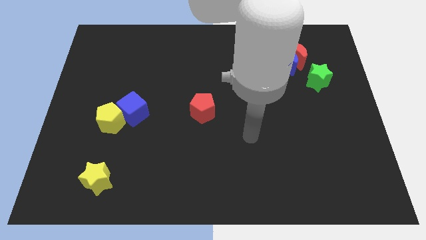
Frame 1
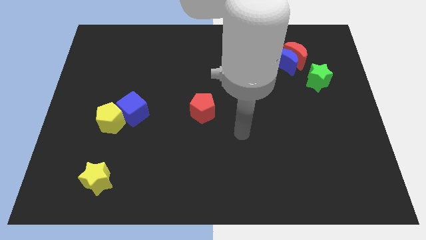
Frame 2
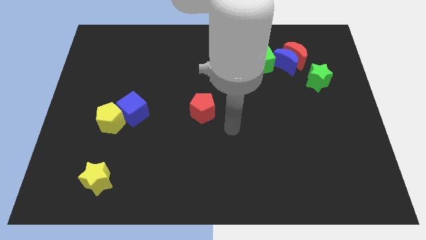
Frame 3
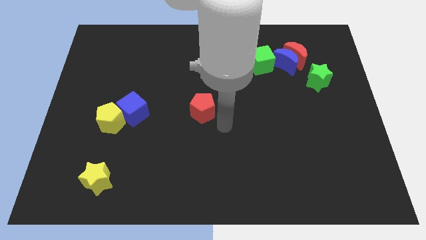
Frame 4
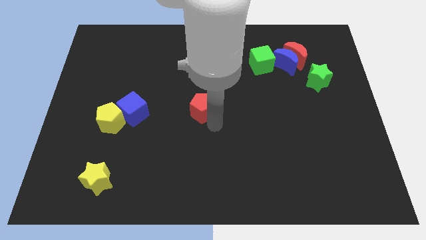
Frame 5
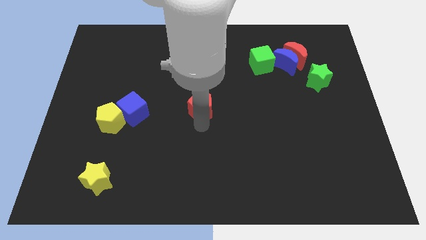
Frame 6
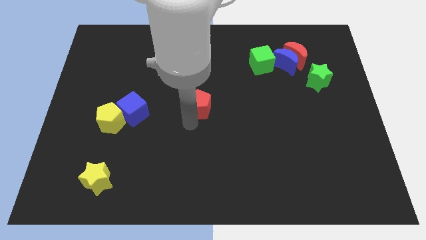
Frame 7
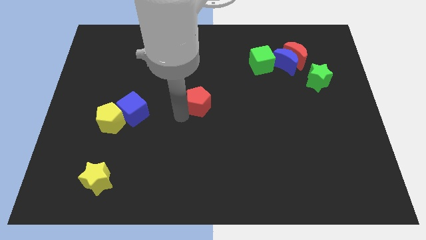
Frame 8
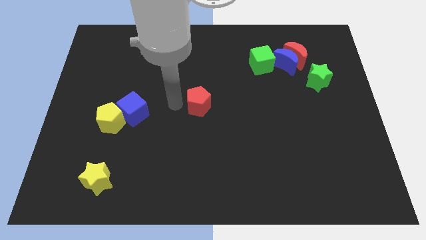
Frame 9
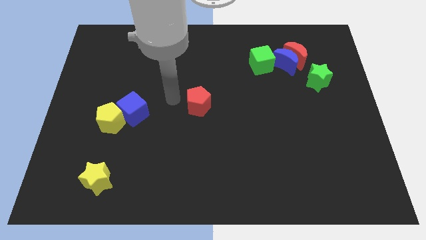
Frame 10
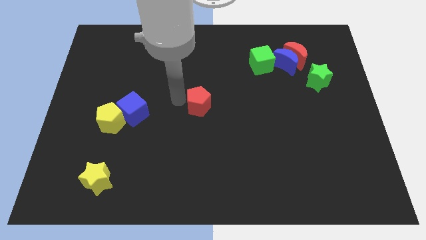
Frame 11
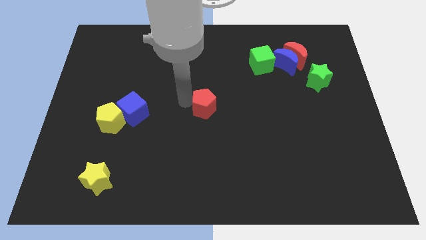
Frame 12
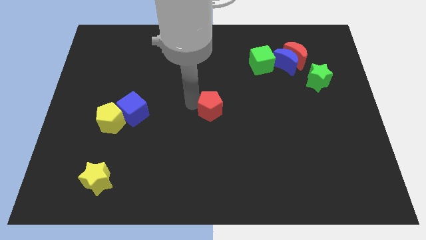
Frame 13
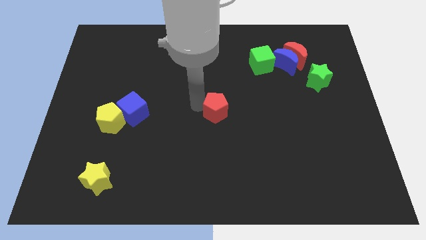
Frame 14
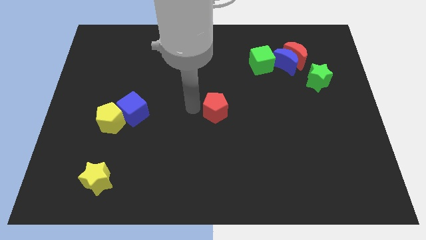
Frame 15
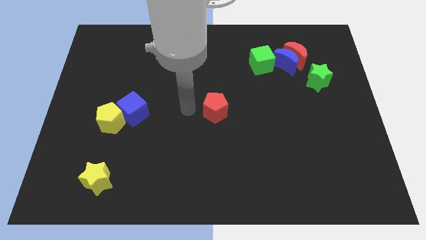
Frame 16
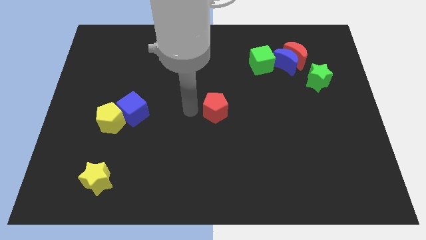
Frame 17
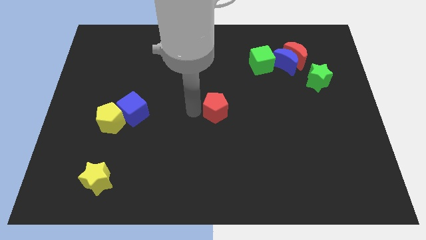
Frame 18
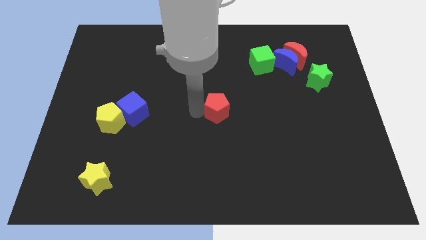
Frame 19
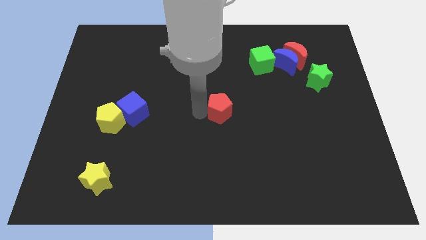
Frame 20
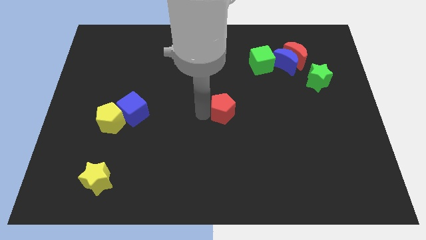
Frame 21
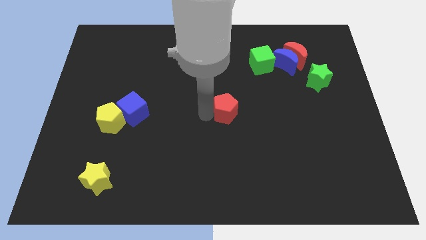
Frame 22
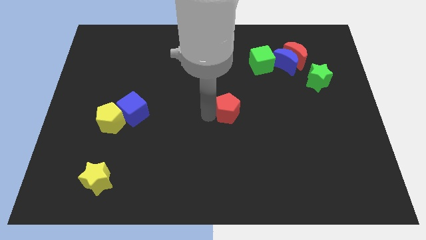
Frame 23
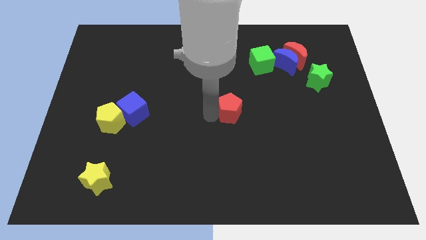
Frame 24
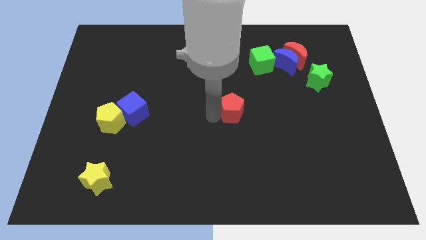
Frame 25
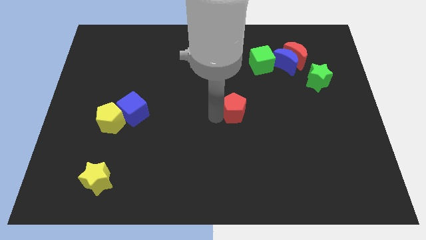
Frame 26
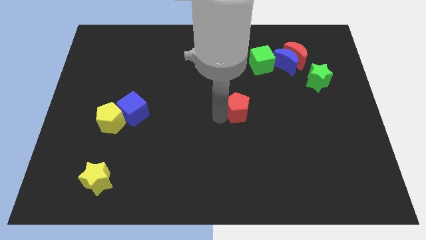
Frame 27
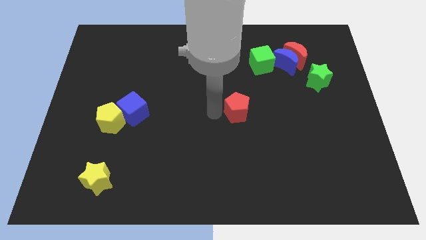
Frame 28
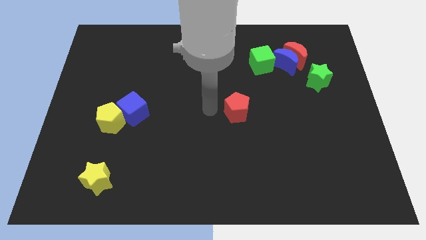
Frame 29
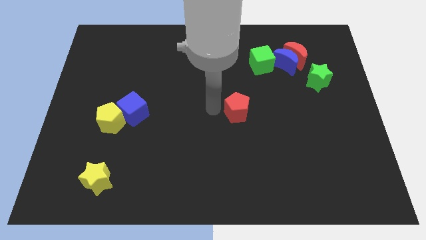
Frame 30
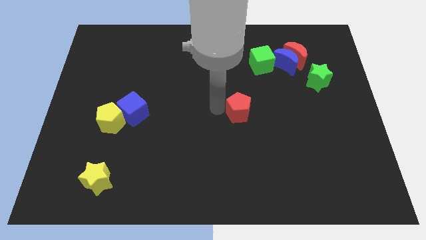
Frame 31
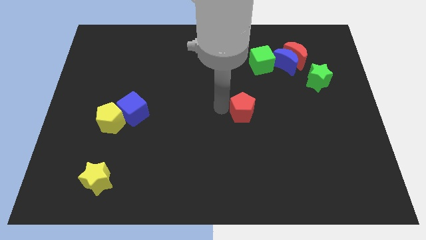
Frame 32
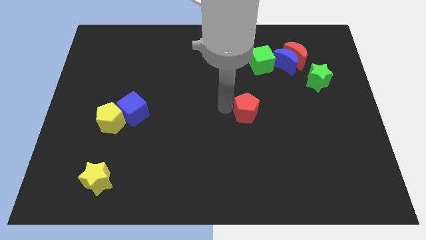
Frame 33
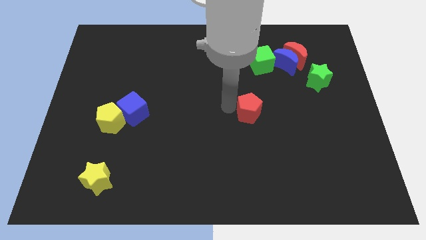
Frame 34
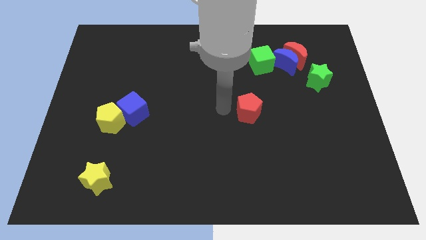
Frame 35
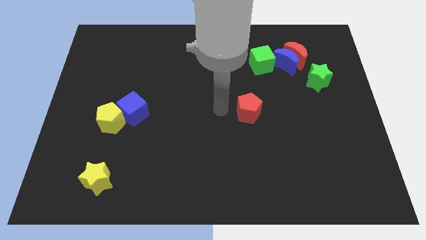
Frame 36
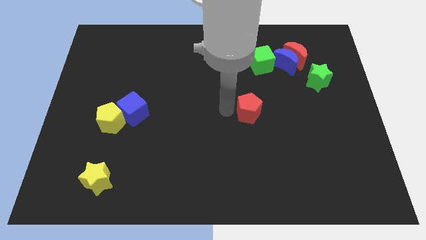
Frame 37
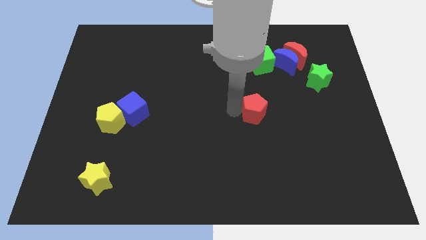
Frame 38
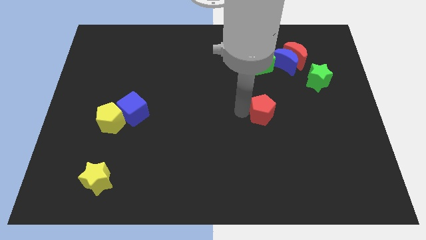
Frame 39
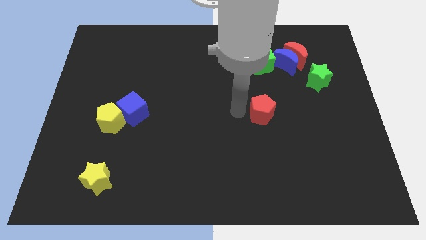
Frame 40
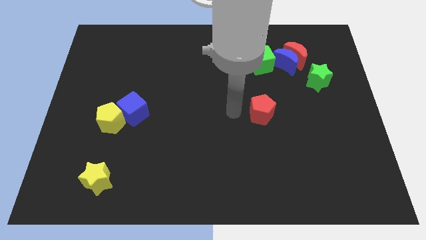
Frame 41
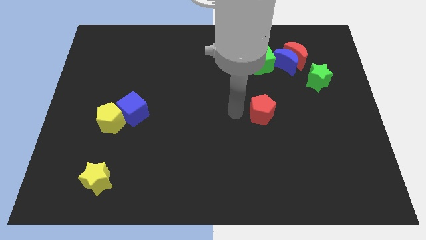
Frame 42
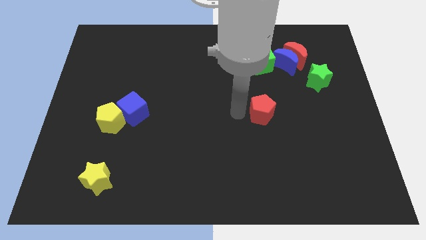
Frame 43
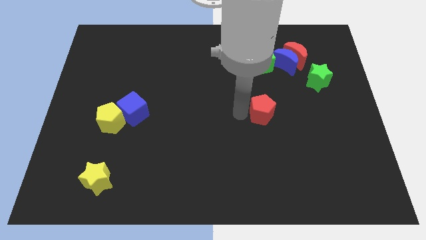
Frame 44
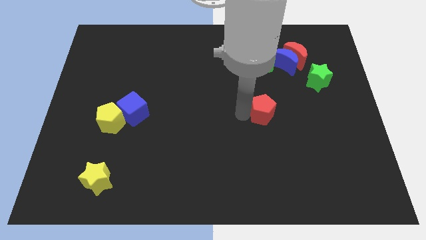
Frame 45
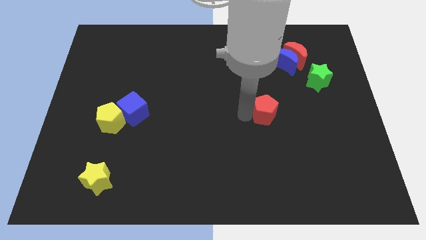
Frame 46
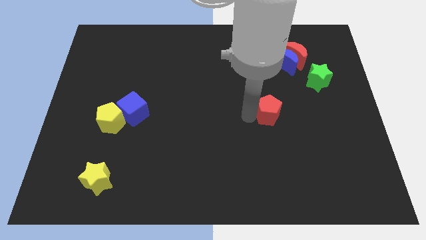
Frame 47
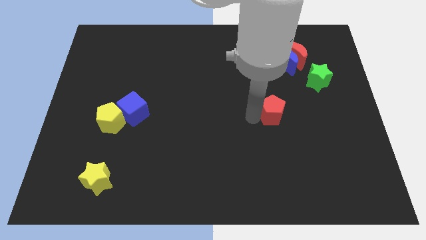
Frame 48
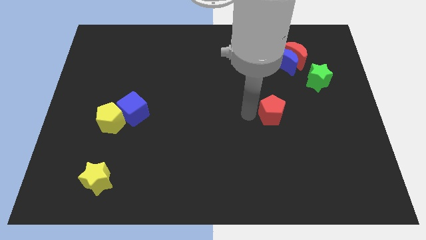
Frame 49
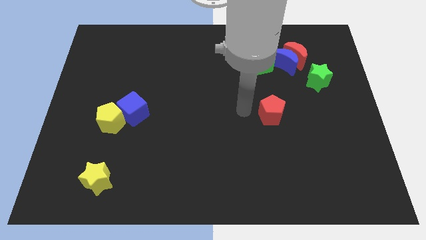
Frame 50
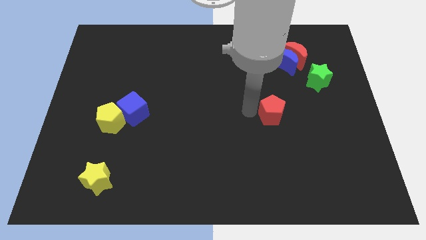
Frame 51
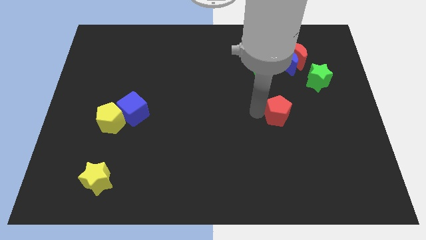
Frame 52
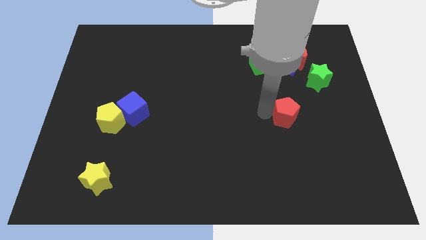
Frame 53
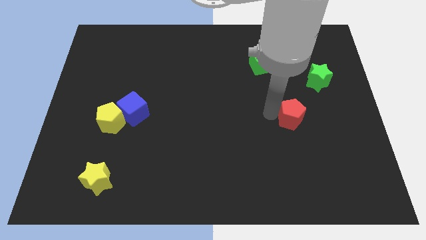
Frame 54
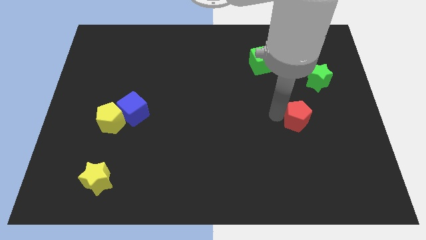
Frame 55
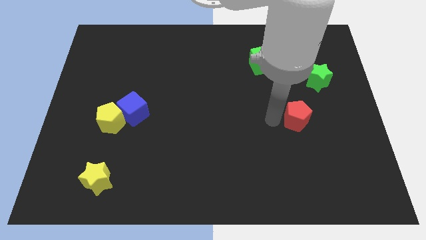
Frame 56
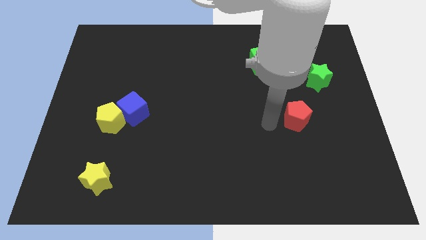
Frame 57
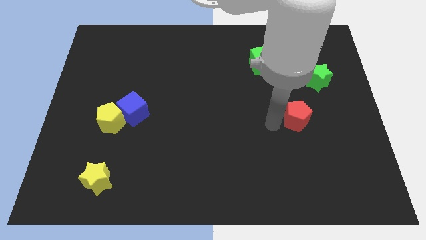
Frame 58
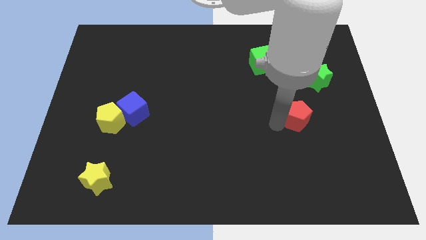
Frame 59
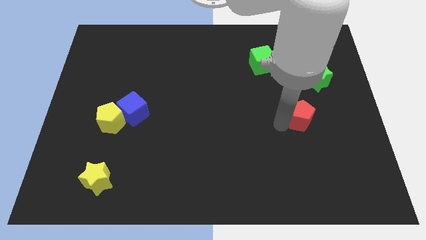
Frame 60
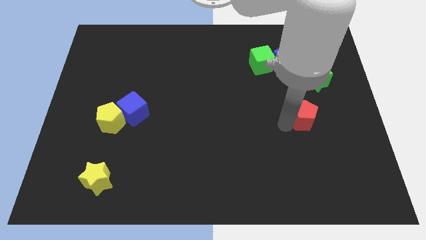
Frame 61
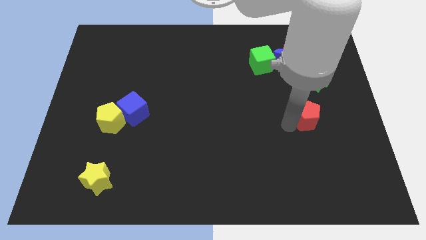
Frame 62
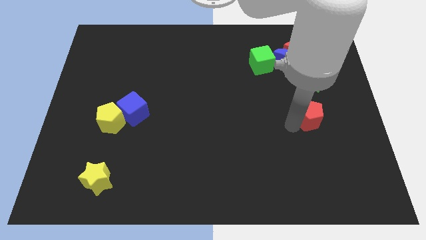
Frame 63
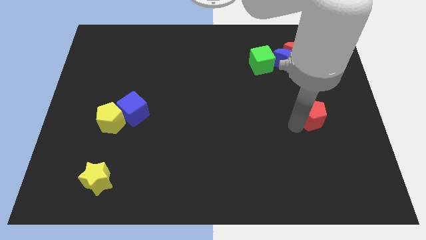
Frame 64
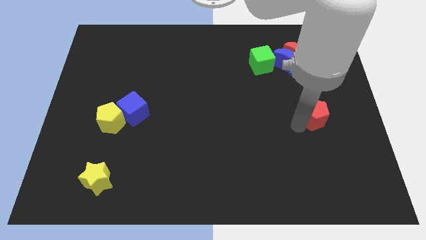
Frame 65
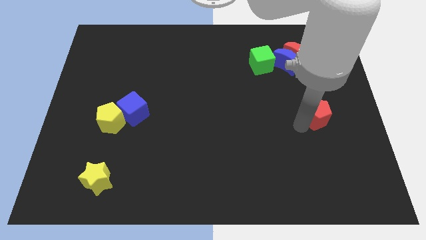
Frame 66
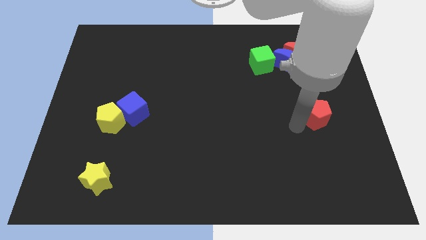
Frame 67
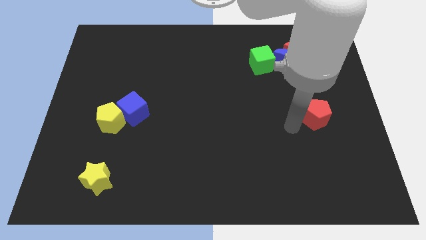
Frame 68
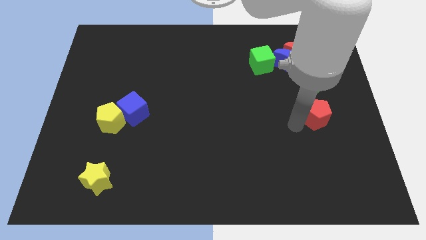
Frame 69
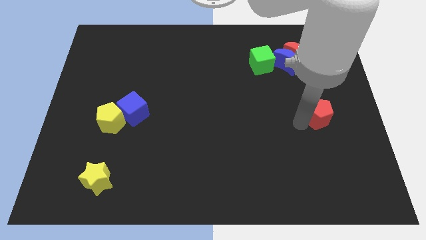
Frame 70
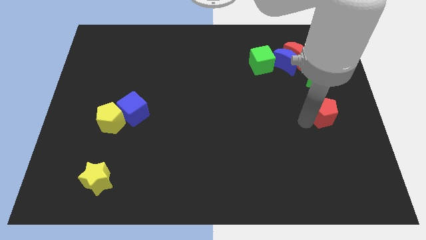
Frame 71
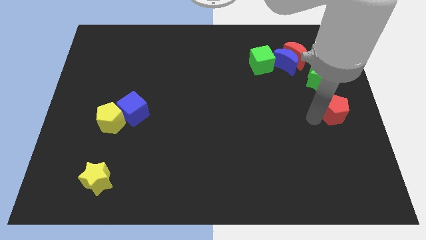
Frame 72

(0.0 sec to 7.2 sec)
slide the red pentagon to the right side
